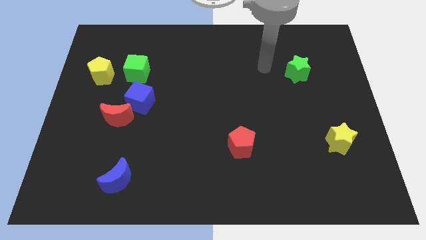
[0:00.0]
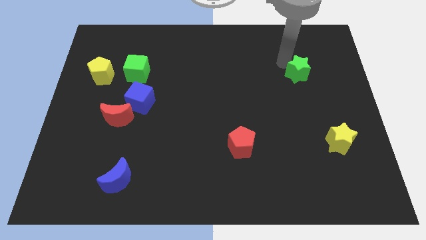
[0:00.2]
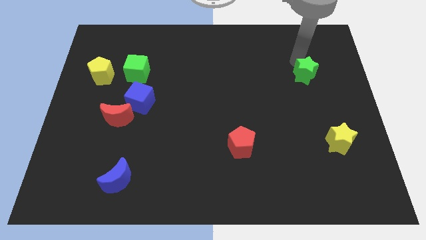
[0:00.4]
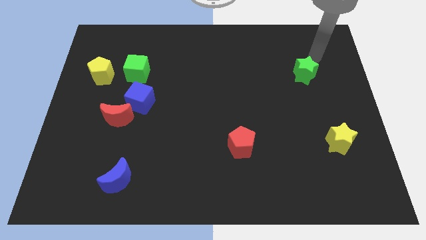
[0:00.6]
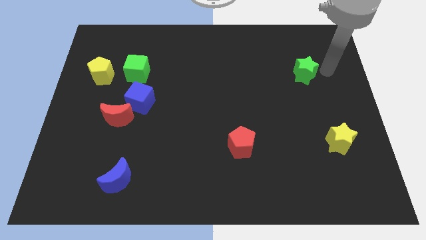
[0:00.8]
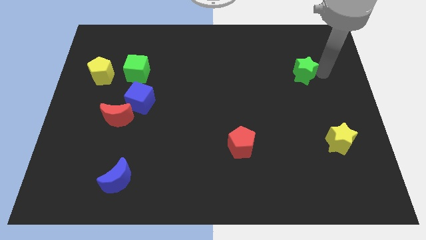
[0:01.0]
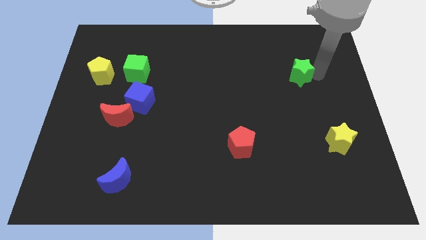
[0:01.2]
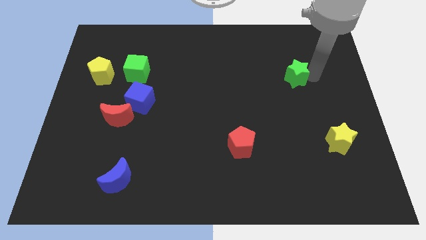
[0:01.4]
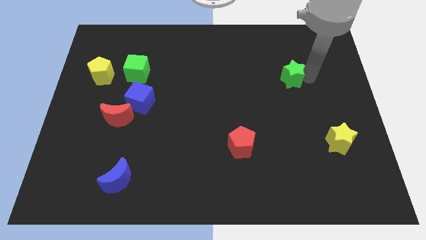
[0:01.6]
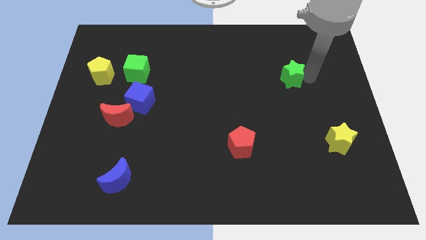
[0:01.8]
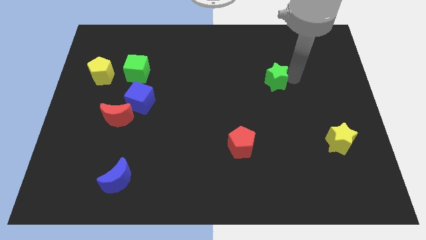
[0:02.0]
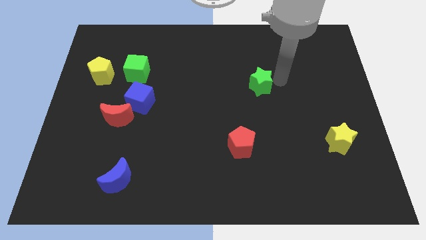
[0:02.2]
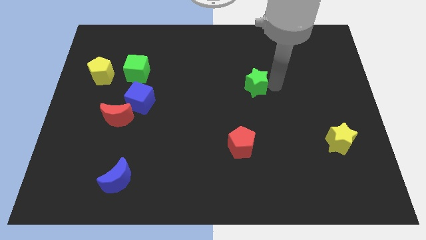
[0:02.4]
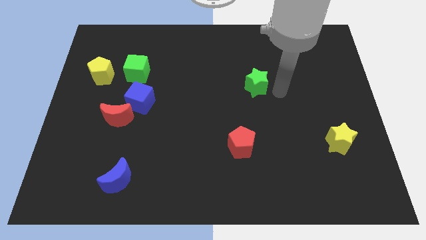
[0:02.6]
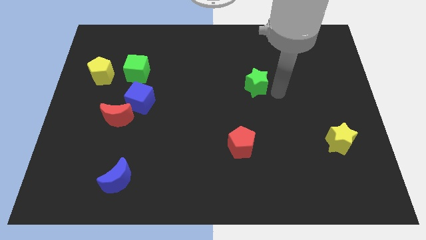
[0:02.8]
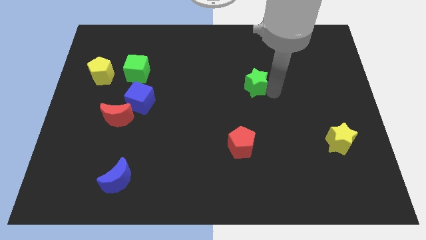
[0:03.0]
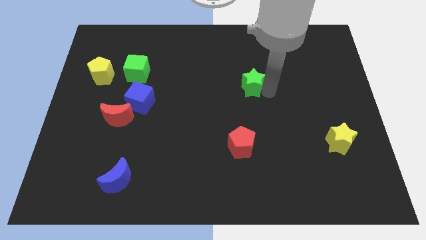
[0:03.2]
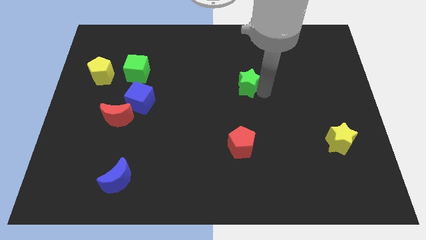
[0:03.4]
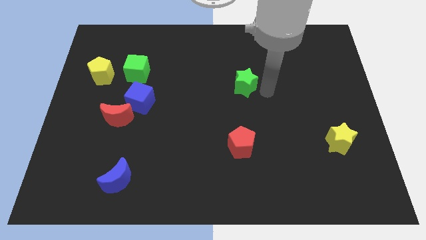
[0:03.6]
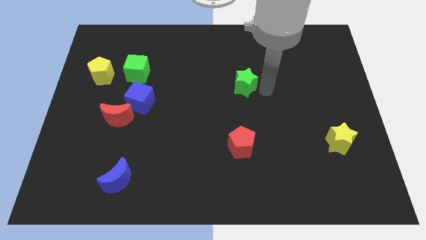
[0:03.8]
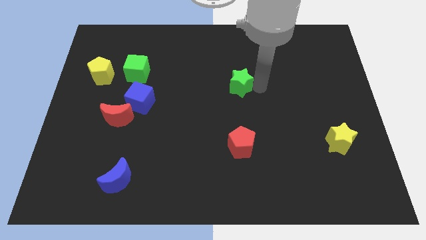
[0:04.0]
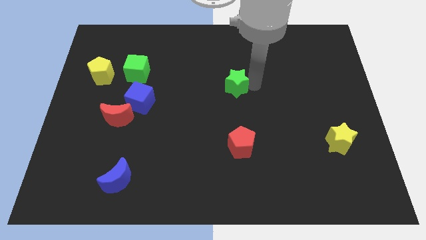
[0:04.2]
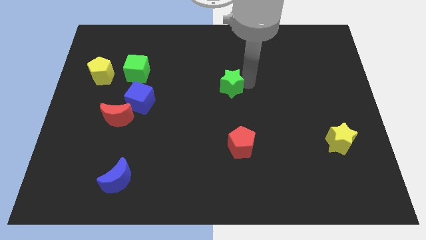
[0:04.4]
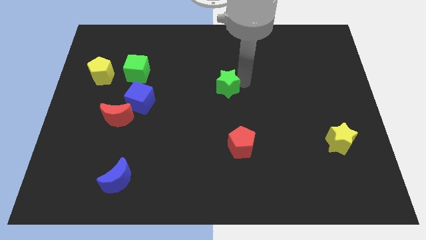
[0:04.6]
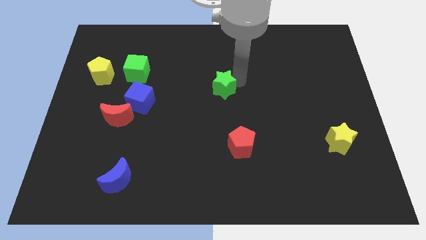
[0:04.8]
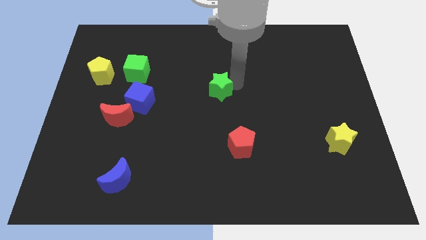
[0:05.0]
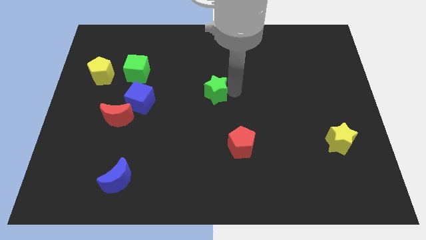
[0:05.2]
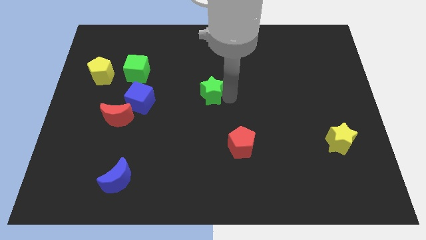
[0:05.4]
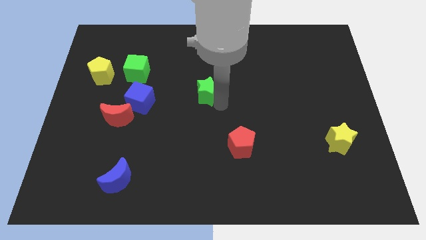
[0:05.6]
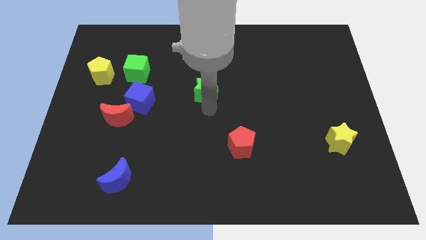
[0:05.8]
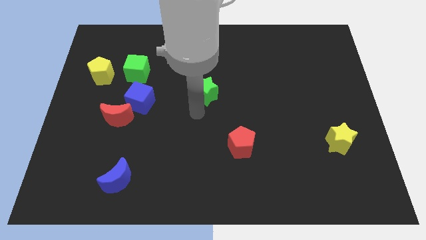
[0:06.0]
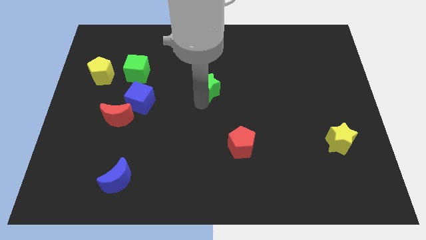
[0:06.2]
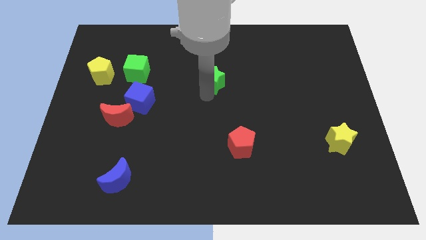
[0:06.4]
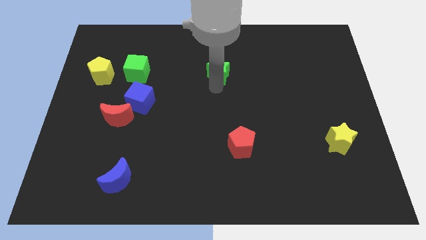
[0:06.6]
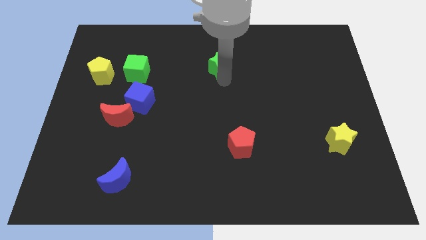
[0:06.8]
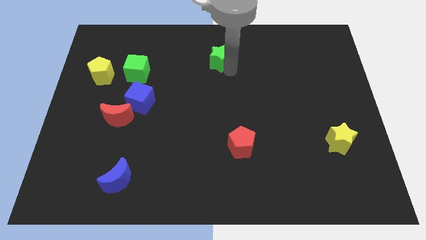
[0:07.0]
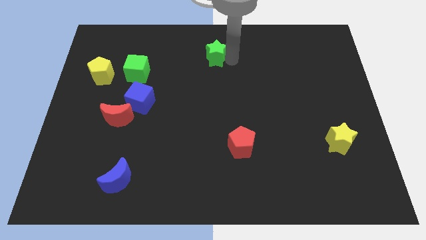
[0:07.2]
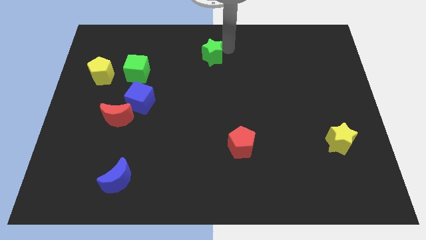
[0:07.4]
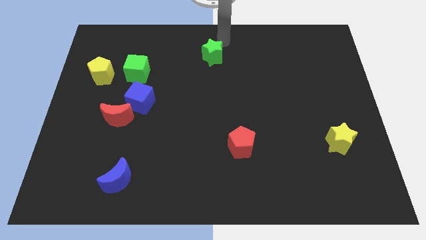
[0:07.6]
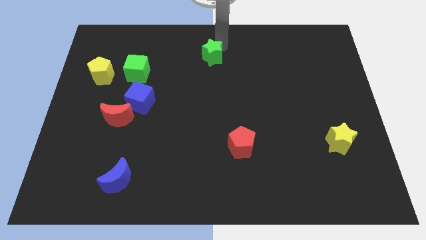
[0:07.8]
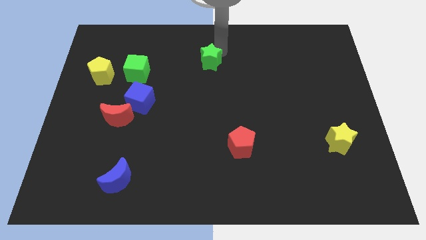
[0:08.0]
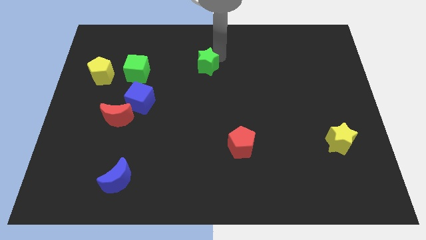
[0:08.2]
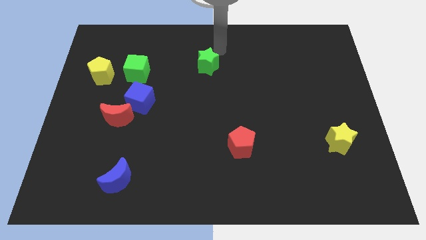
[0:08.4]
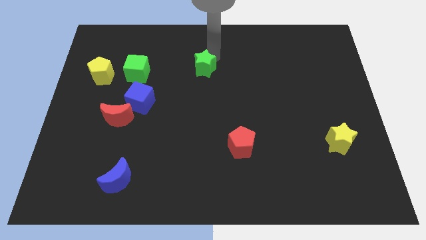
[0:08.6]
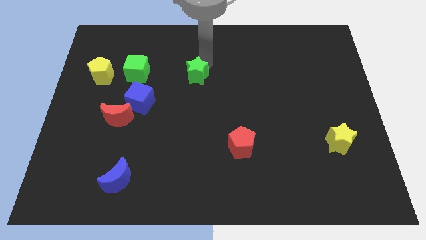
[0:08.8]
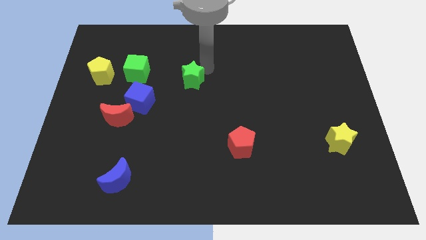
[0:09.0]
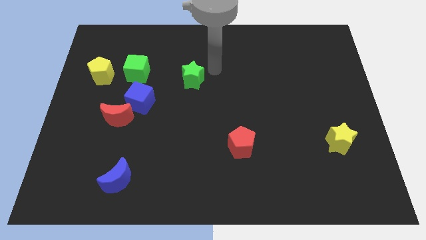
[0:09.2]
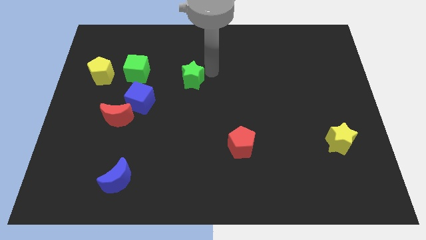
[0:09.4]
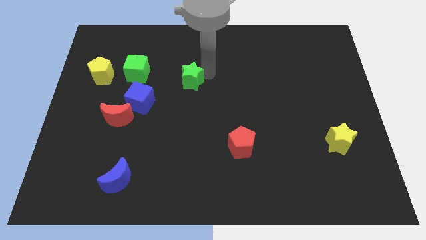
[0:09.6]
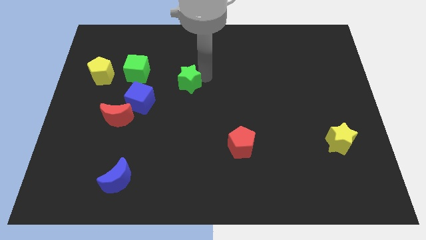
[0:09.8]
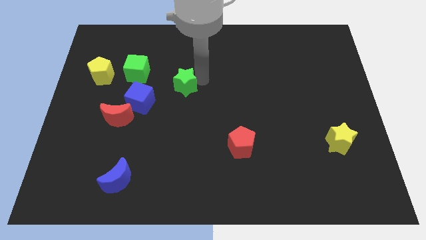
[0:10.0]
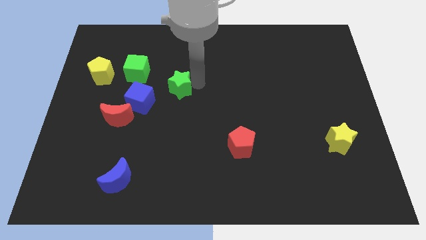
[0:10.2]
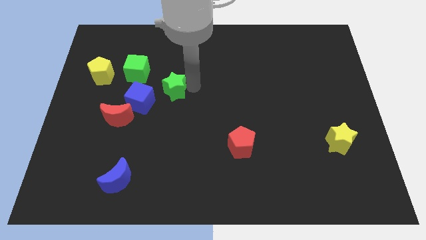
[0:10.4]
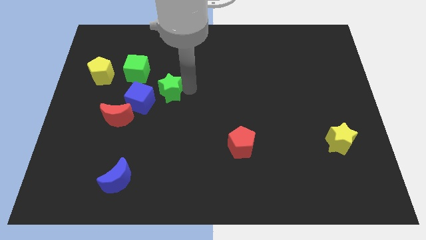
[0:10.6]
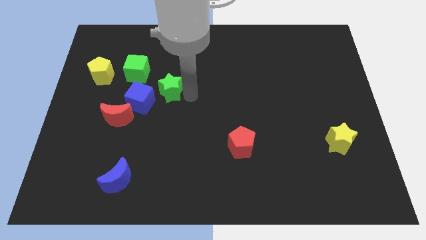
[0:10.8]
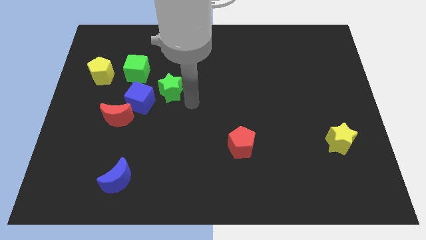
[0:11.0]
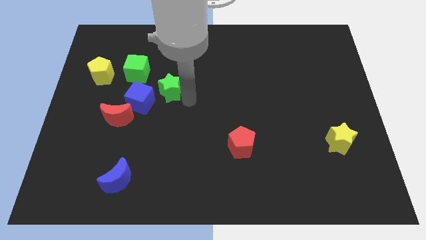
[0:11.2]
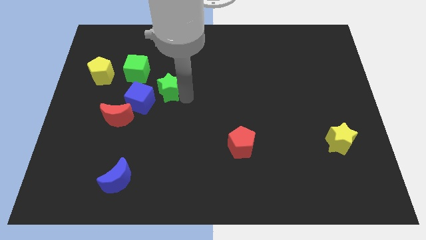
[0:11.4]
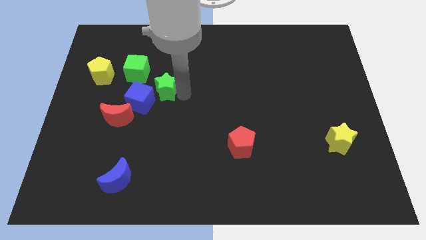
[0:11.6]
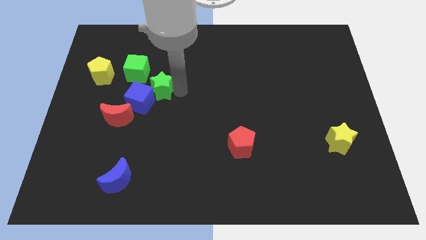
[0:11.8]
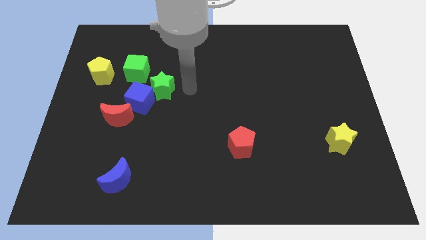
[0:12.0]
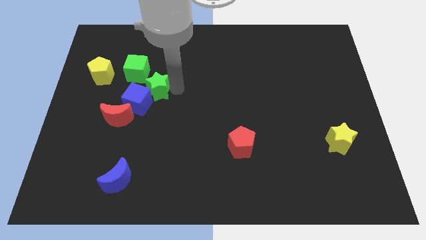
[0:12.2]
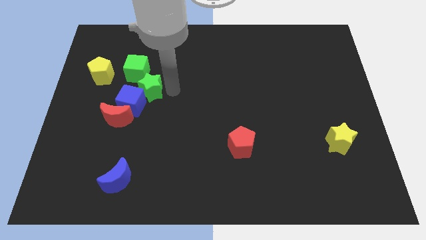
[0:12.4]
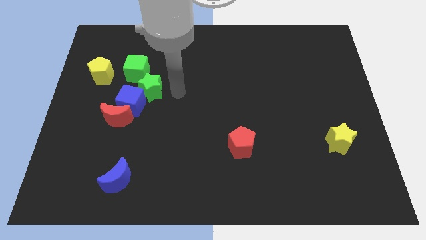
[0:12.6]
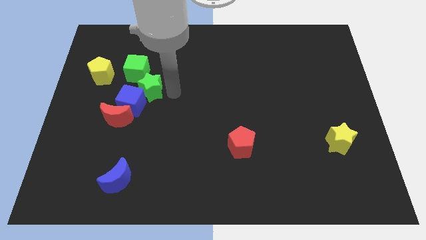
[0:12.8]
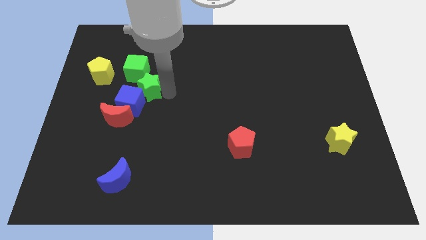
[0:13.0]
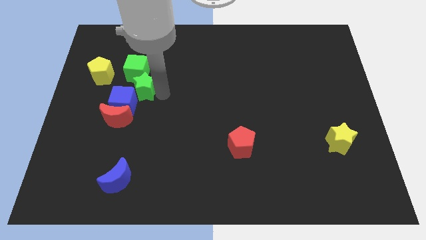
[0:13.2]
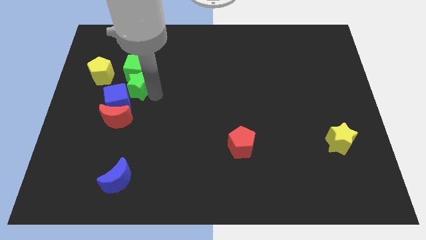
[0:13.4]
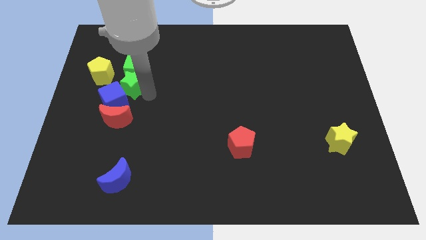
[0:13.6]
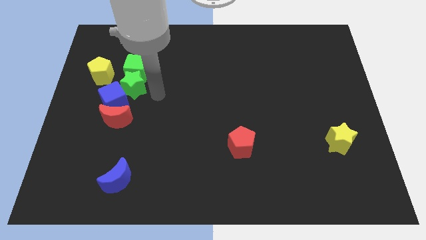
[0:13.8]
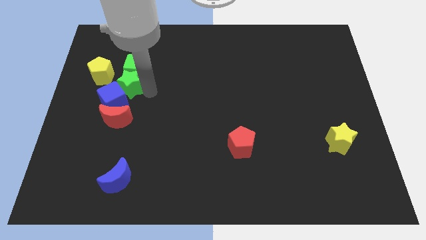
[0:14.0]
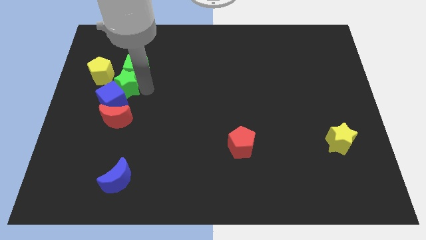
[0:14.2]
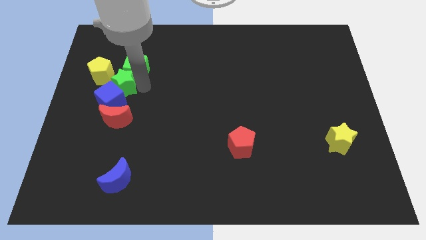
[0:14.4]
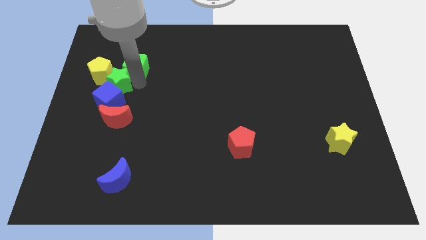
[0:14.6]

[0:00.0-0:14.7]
put the green star close to the yellow pentagon
